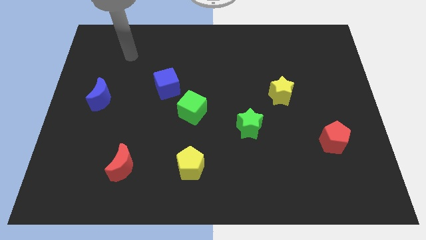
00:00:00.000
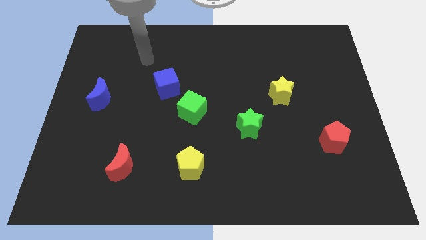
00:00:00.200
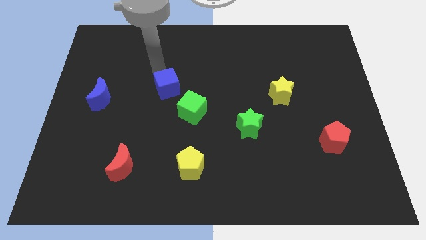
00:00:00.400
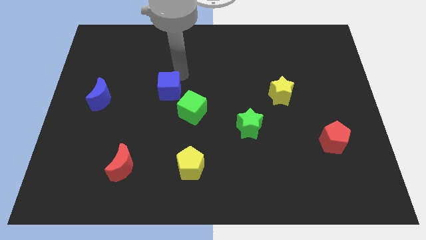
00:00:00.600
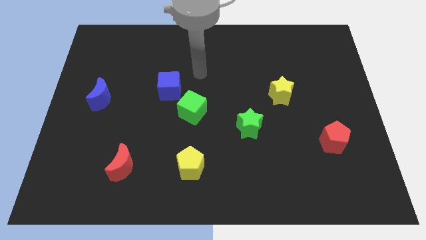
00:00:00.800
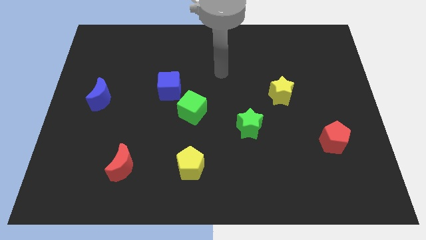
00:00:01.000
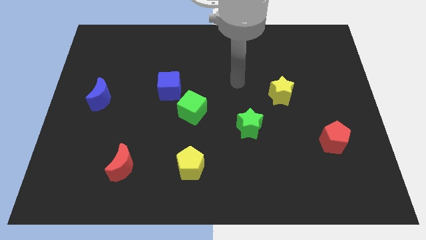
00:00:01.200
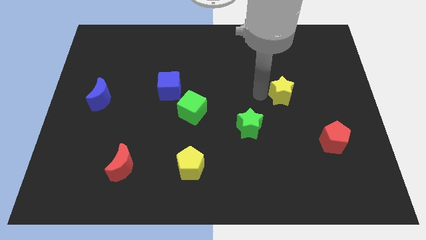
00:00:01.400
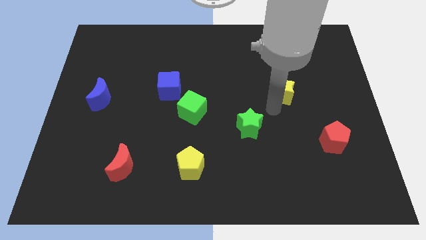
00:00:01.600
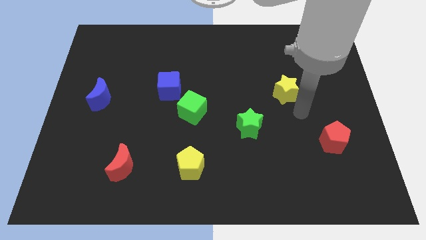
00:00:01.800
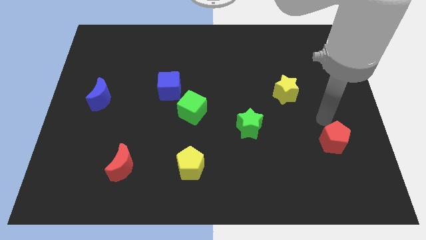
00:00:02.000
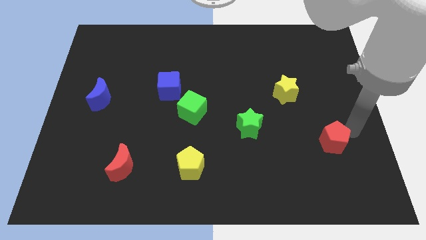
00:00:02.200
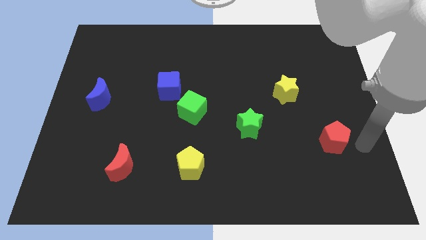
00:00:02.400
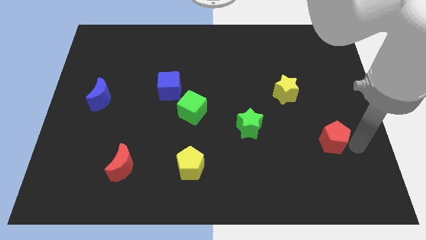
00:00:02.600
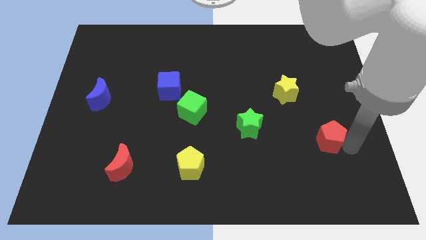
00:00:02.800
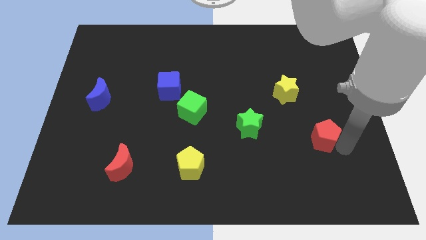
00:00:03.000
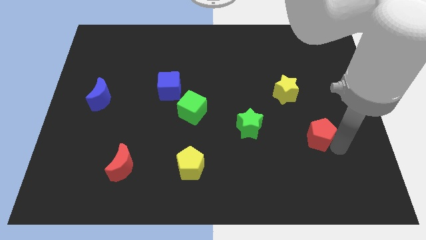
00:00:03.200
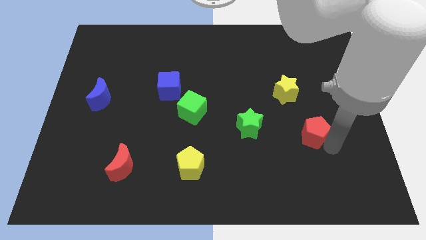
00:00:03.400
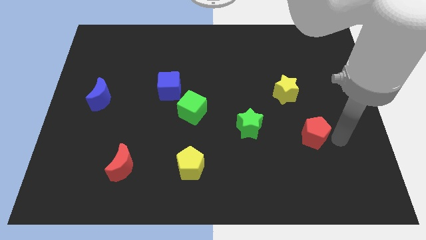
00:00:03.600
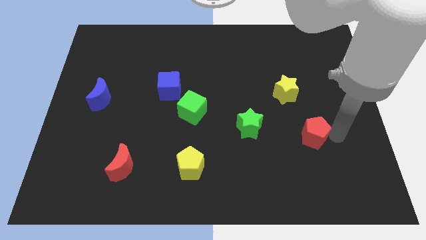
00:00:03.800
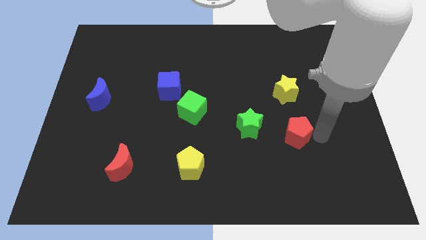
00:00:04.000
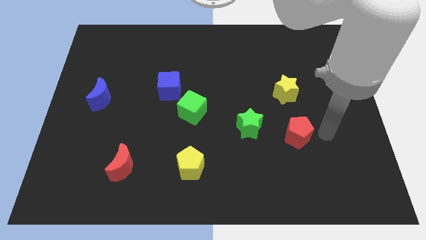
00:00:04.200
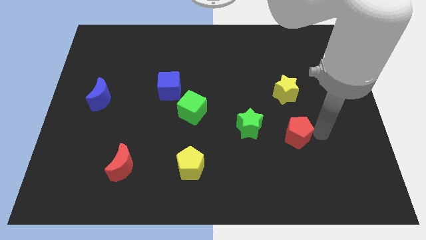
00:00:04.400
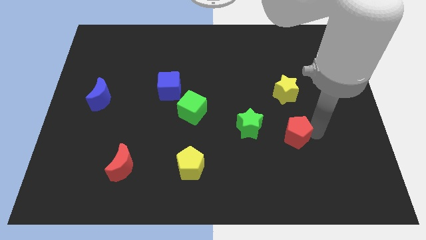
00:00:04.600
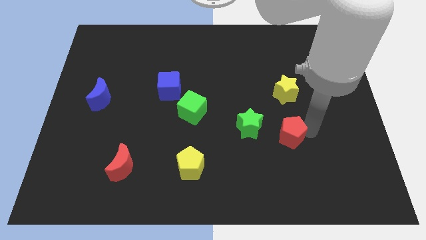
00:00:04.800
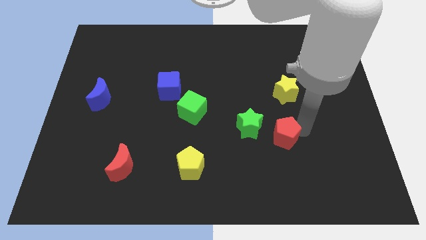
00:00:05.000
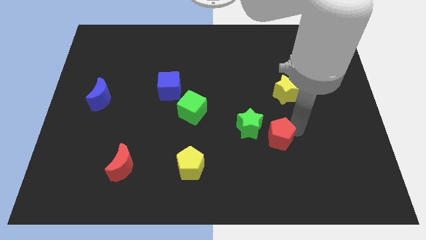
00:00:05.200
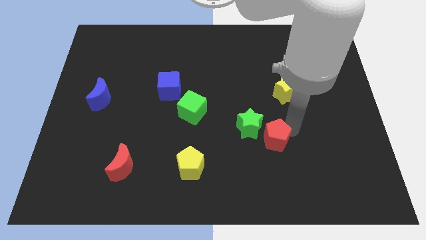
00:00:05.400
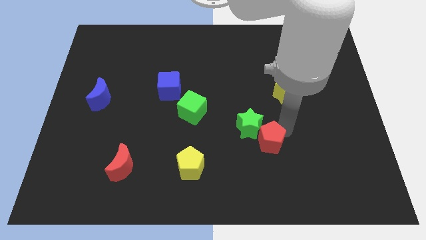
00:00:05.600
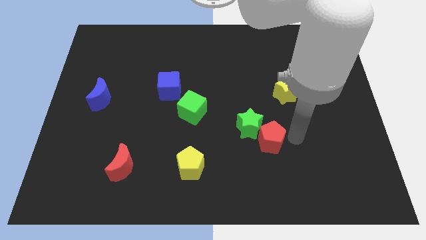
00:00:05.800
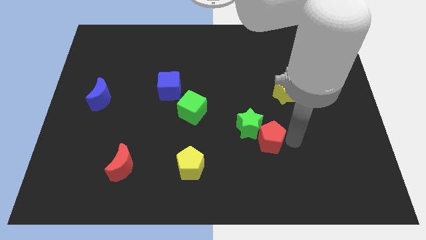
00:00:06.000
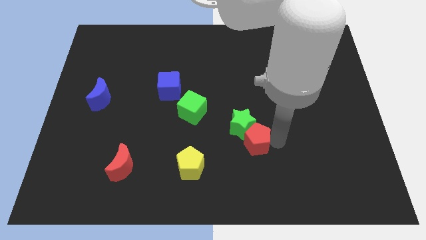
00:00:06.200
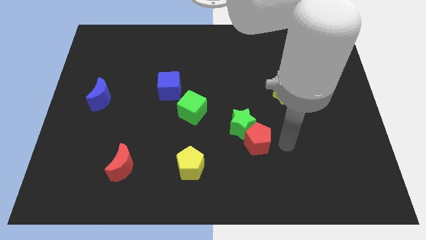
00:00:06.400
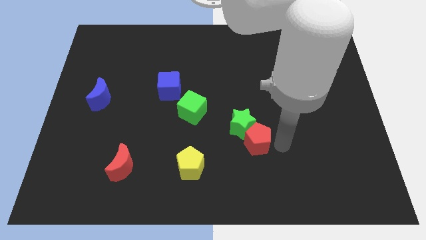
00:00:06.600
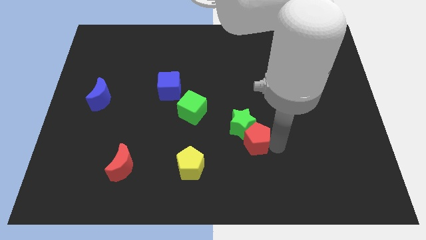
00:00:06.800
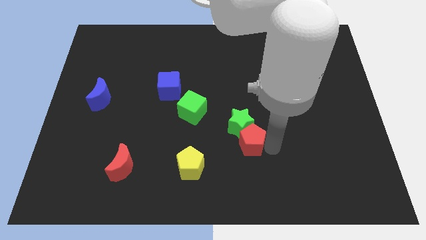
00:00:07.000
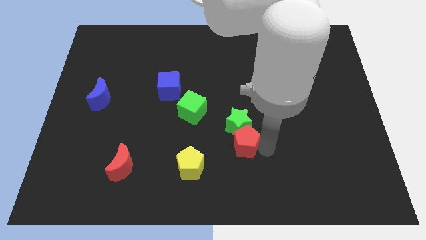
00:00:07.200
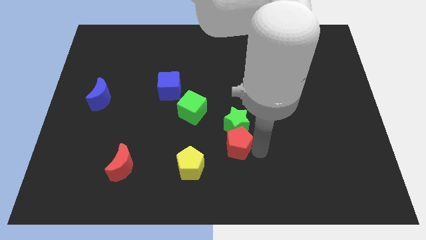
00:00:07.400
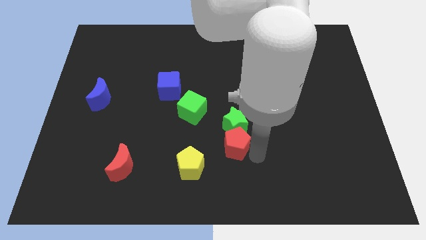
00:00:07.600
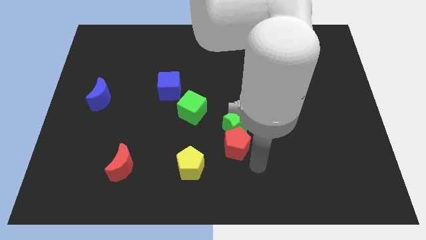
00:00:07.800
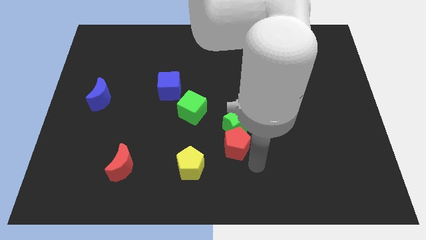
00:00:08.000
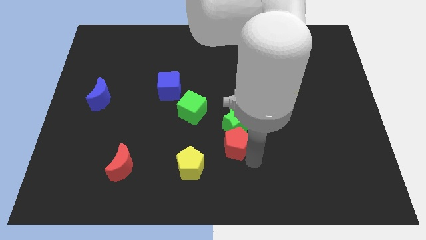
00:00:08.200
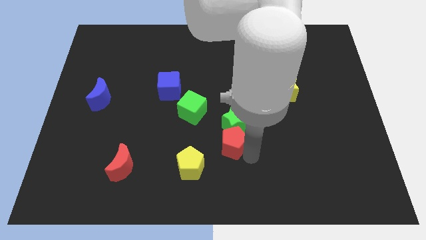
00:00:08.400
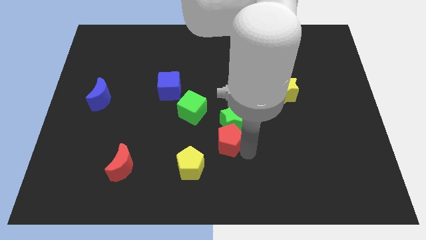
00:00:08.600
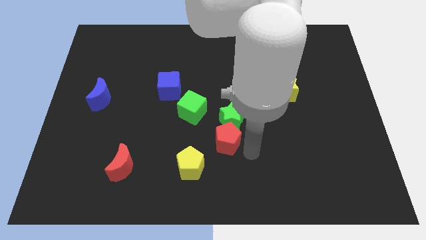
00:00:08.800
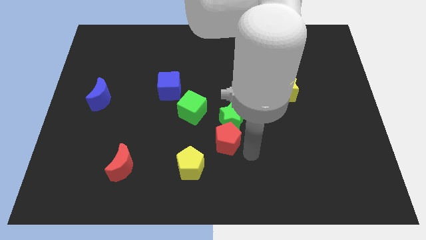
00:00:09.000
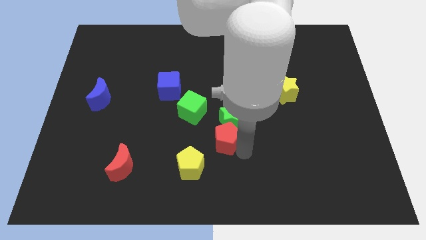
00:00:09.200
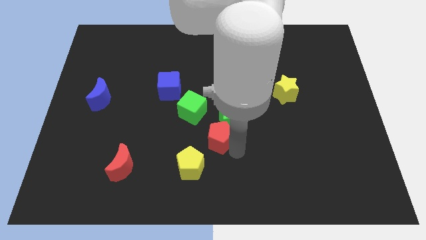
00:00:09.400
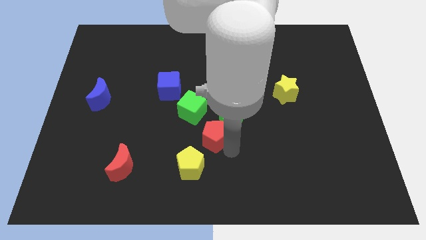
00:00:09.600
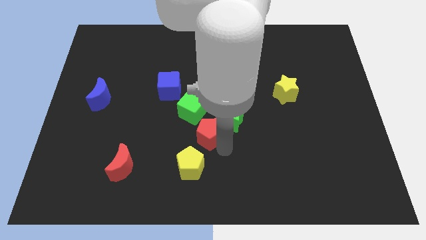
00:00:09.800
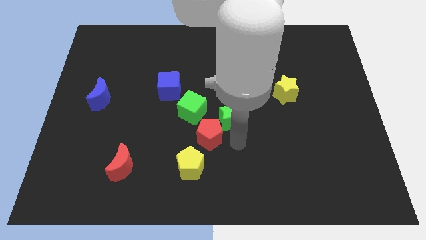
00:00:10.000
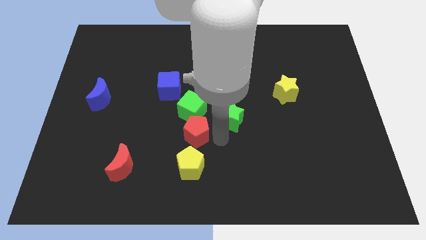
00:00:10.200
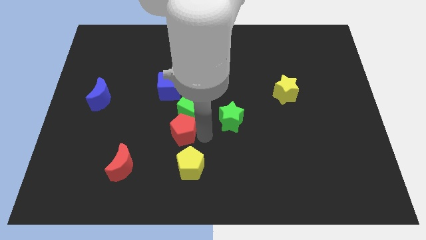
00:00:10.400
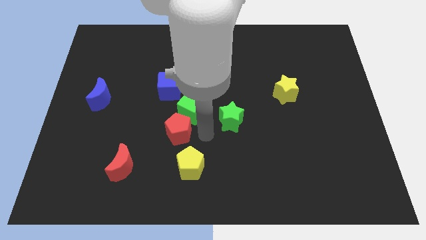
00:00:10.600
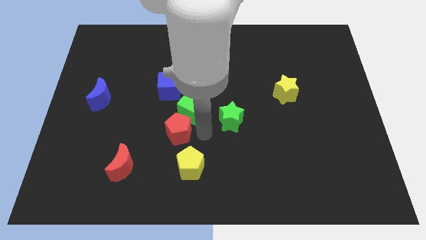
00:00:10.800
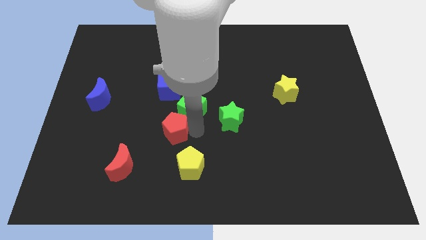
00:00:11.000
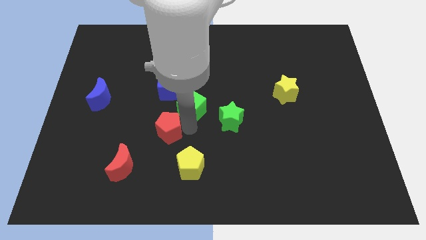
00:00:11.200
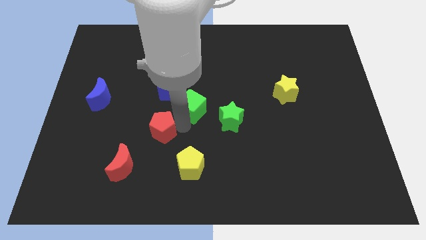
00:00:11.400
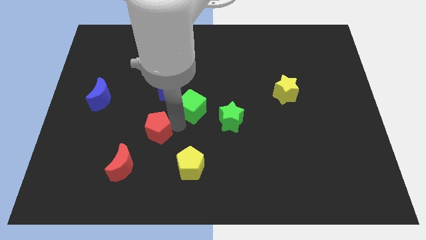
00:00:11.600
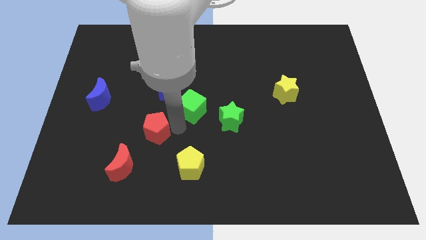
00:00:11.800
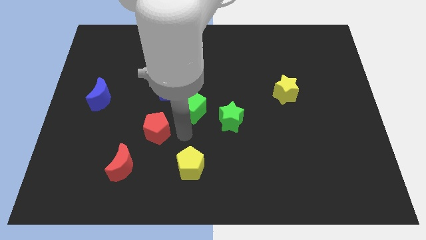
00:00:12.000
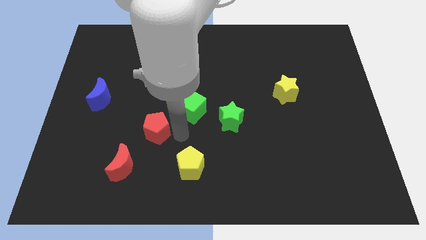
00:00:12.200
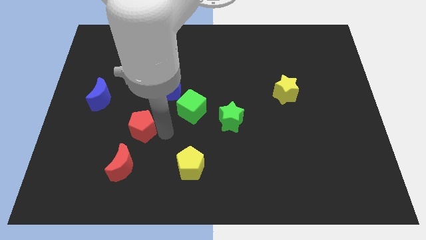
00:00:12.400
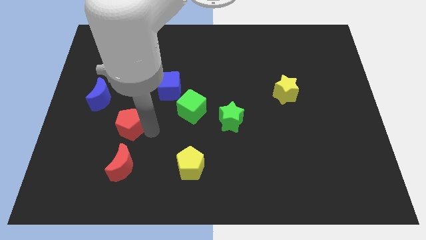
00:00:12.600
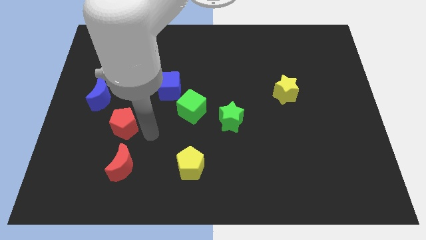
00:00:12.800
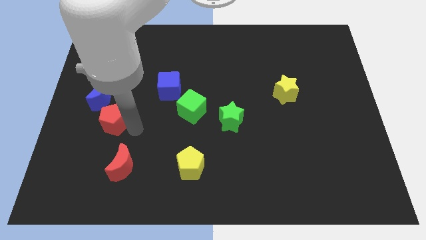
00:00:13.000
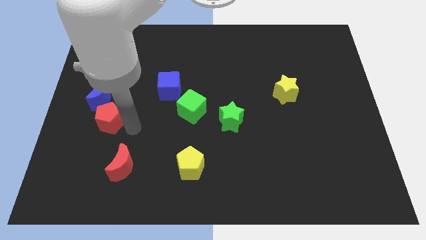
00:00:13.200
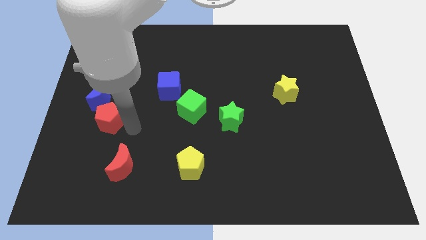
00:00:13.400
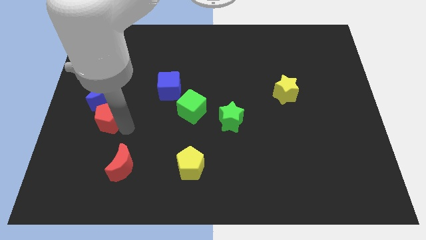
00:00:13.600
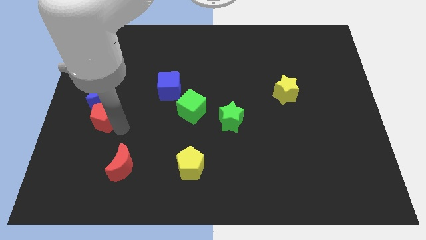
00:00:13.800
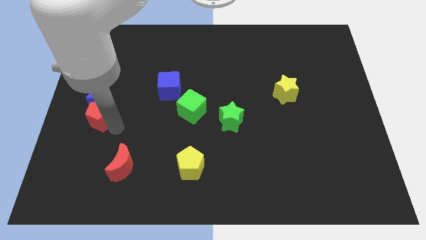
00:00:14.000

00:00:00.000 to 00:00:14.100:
push the red pentagon to the center left
